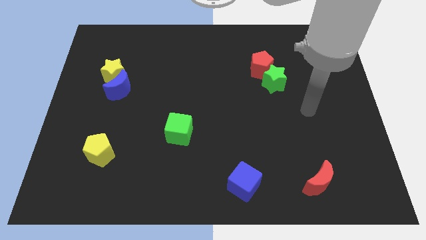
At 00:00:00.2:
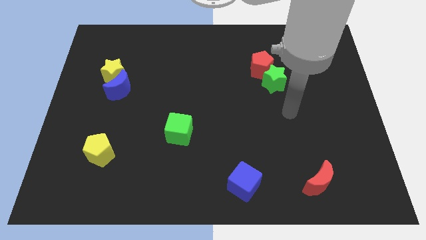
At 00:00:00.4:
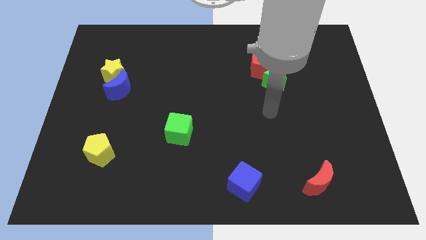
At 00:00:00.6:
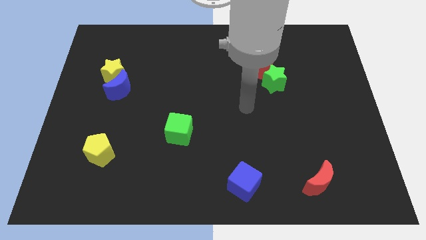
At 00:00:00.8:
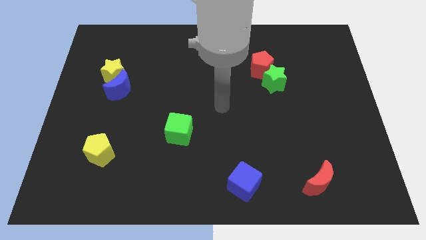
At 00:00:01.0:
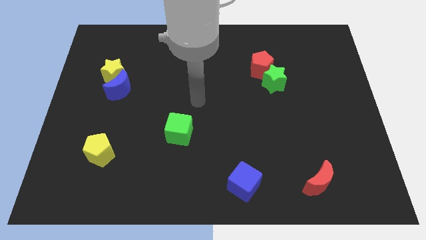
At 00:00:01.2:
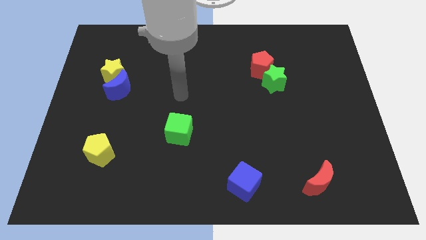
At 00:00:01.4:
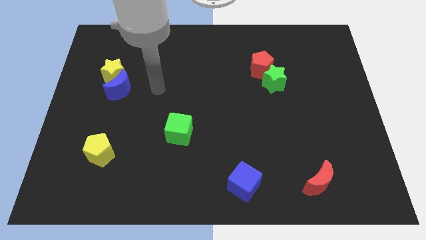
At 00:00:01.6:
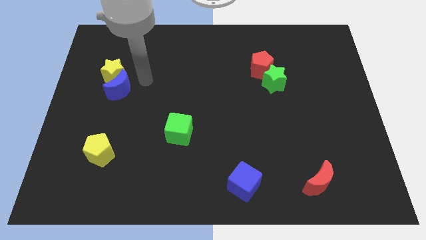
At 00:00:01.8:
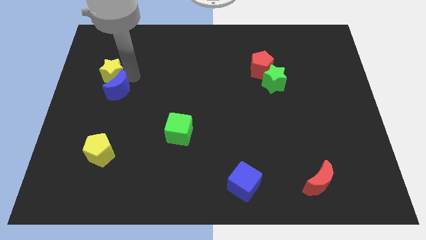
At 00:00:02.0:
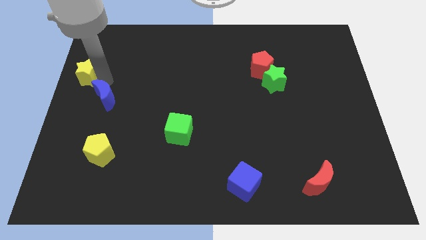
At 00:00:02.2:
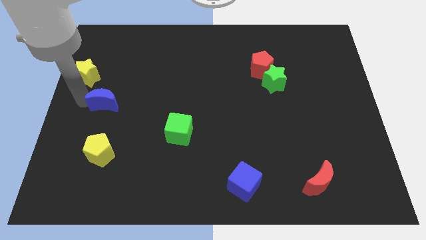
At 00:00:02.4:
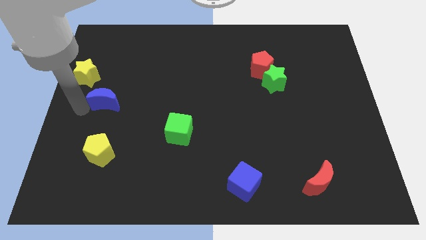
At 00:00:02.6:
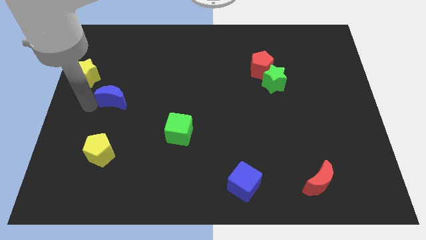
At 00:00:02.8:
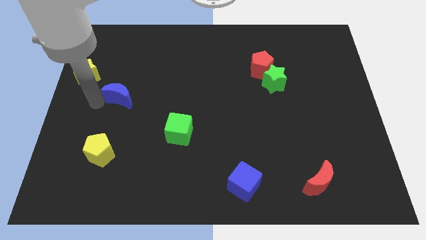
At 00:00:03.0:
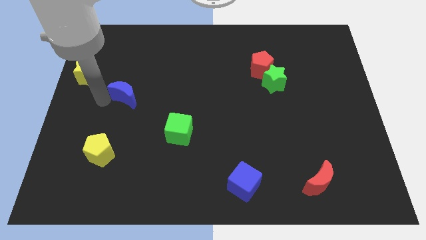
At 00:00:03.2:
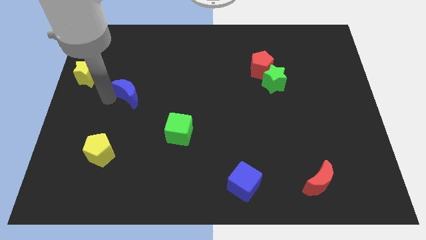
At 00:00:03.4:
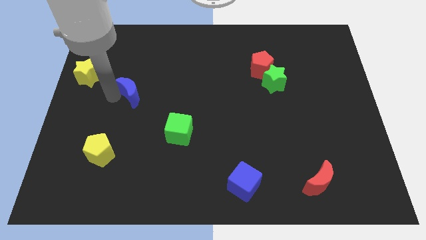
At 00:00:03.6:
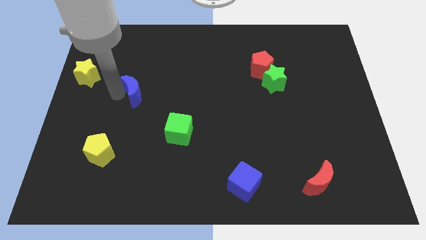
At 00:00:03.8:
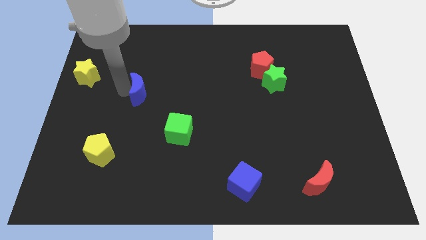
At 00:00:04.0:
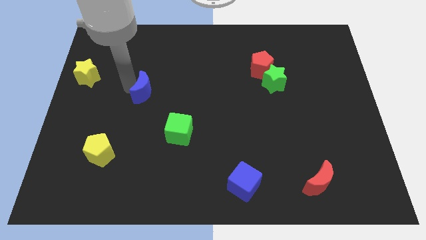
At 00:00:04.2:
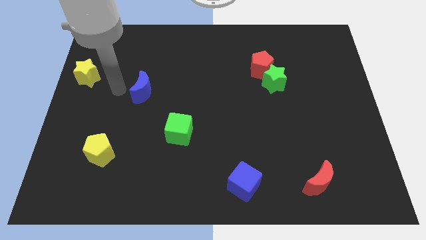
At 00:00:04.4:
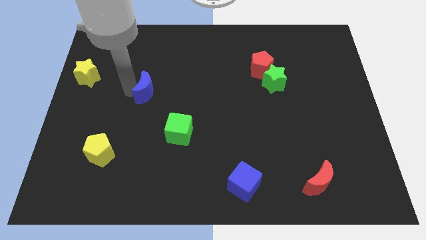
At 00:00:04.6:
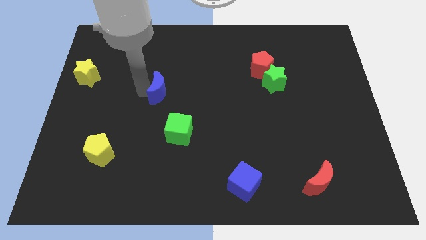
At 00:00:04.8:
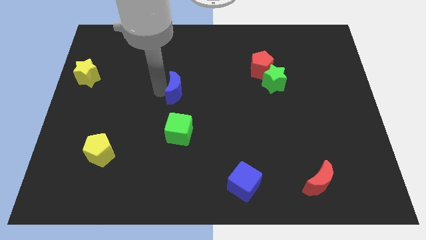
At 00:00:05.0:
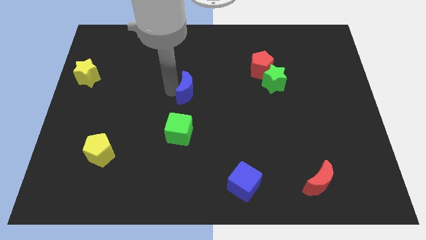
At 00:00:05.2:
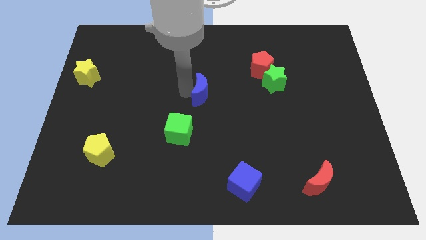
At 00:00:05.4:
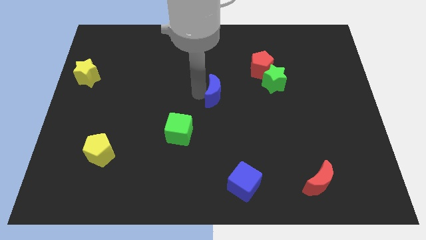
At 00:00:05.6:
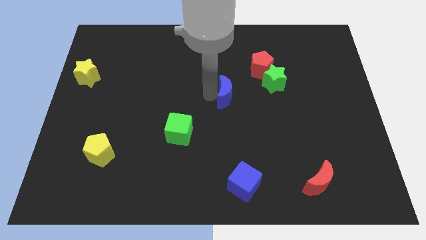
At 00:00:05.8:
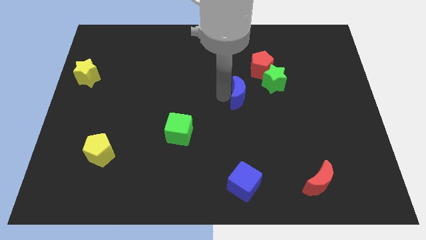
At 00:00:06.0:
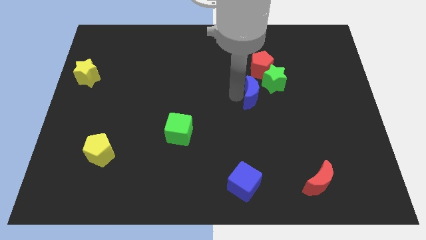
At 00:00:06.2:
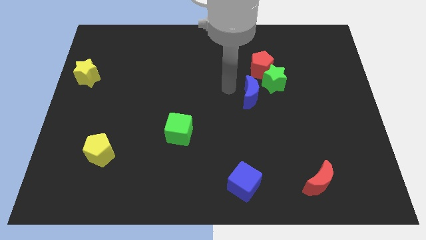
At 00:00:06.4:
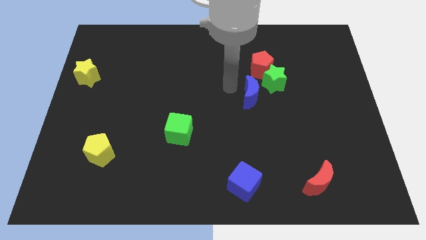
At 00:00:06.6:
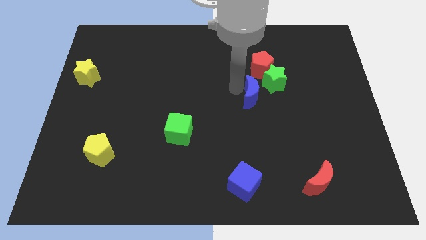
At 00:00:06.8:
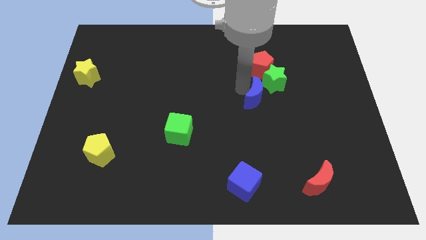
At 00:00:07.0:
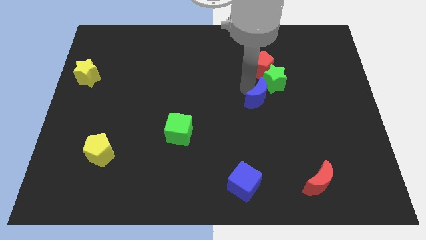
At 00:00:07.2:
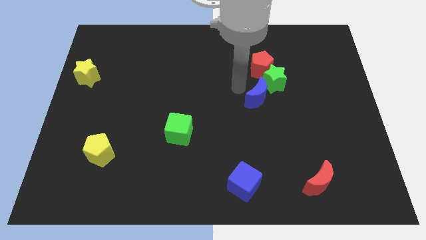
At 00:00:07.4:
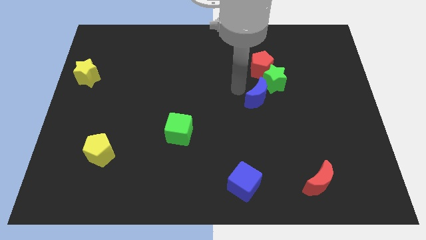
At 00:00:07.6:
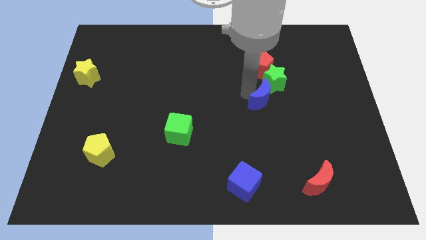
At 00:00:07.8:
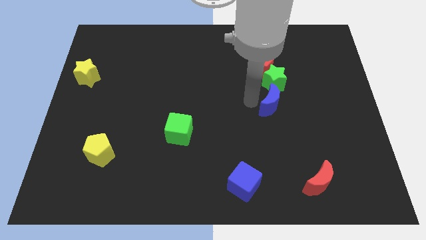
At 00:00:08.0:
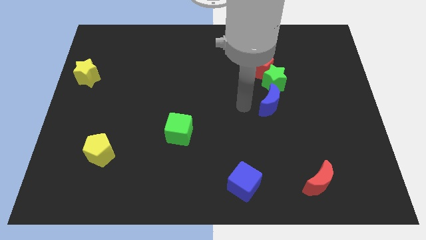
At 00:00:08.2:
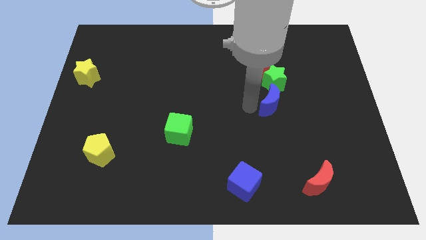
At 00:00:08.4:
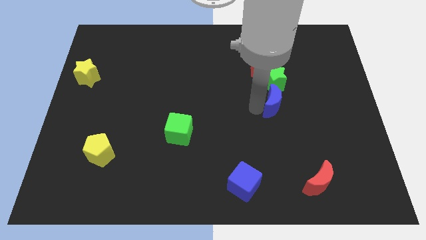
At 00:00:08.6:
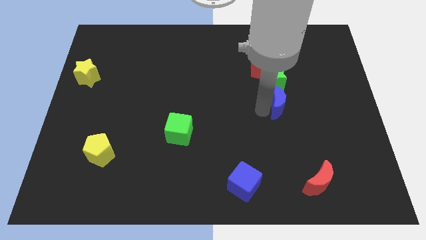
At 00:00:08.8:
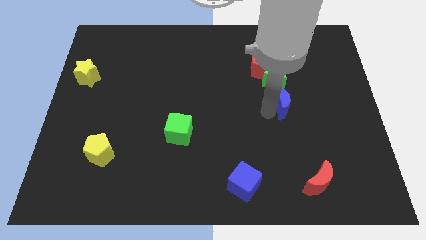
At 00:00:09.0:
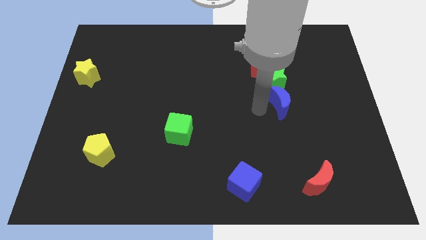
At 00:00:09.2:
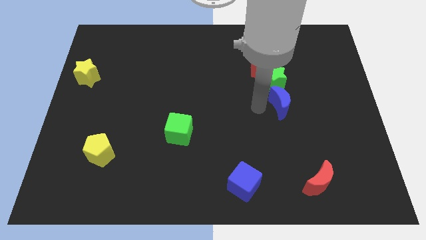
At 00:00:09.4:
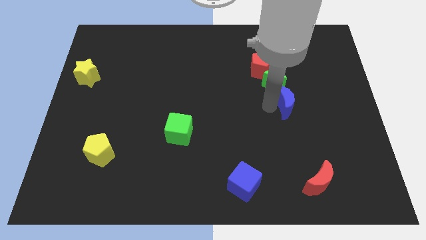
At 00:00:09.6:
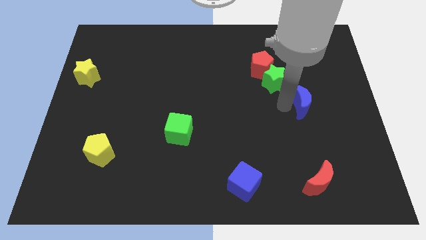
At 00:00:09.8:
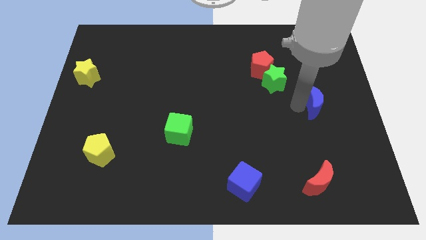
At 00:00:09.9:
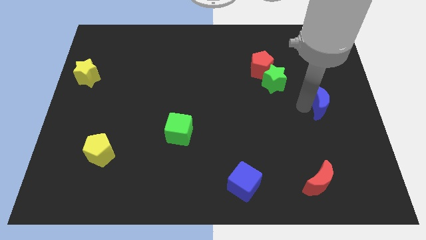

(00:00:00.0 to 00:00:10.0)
put the blue moon to the right side of the board

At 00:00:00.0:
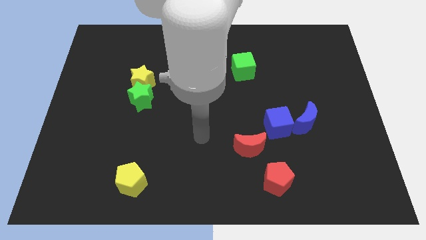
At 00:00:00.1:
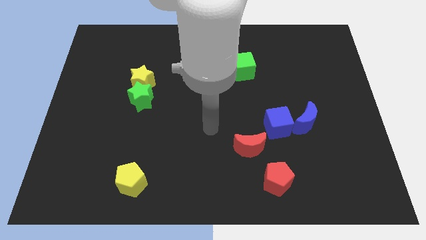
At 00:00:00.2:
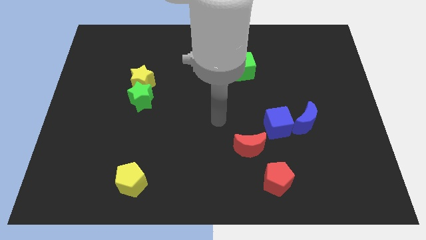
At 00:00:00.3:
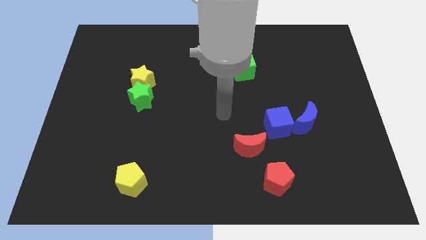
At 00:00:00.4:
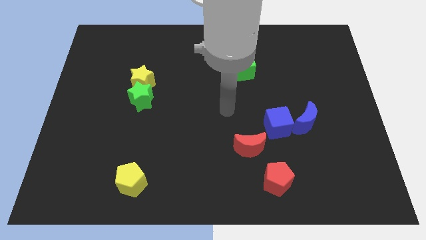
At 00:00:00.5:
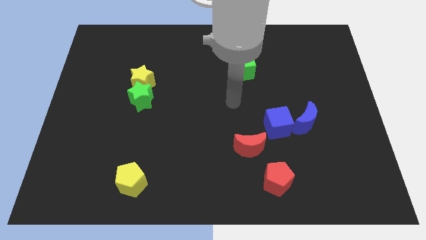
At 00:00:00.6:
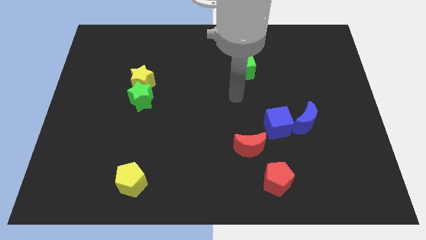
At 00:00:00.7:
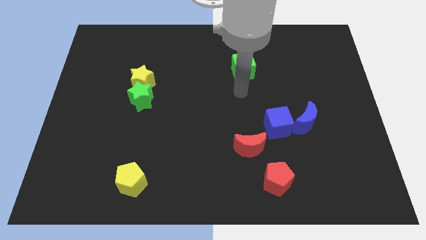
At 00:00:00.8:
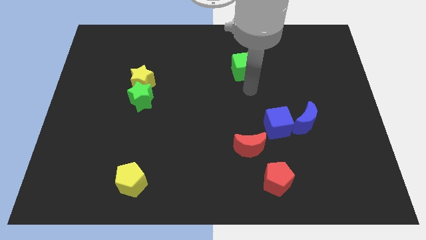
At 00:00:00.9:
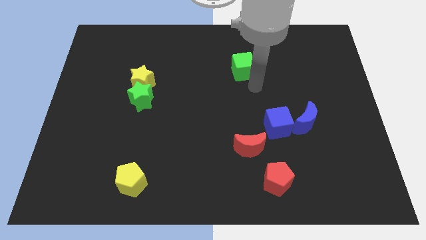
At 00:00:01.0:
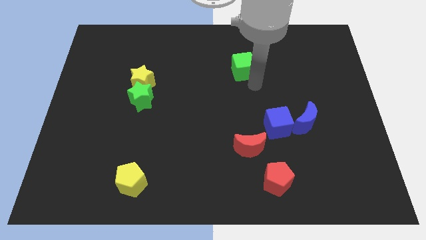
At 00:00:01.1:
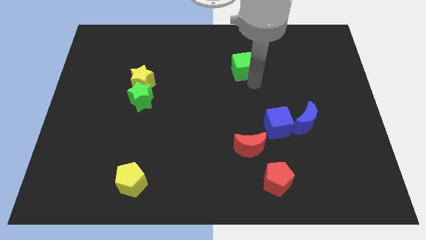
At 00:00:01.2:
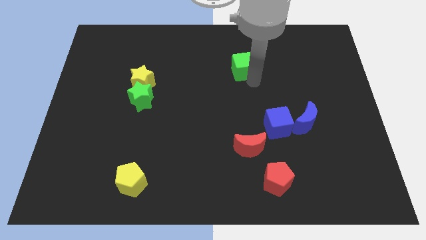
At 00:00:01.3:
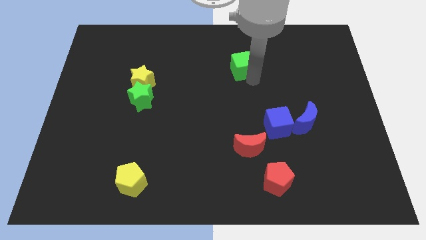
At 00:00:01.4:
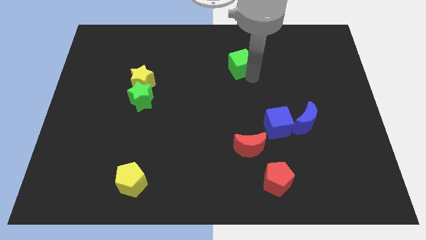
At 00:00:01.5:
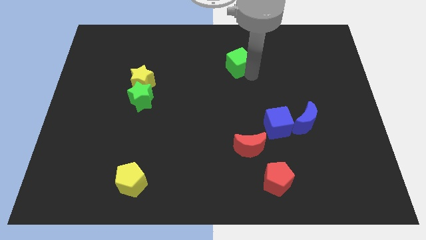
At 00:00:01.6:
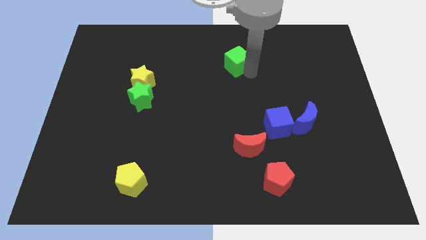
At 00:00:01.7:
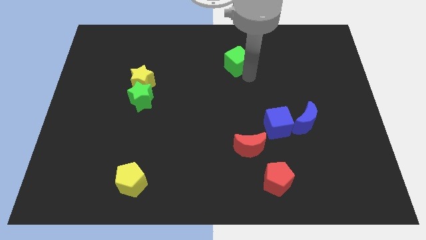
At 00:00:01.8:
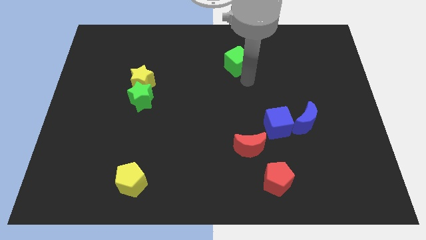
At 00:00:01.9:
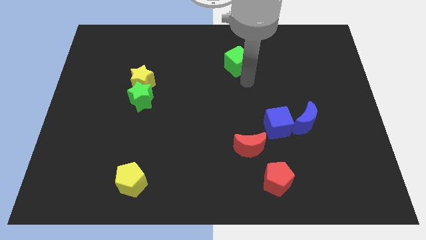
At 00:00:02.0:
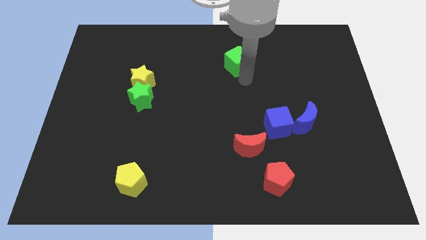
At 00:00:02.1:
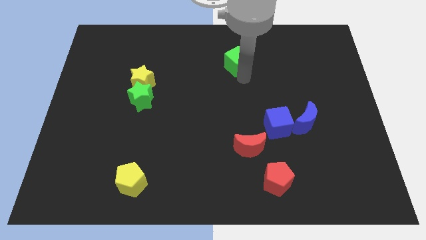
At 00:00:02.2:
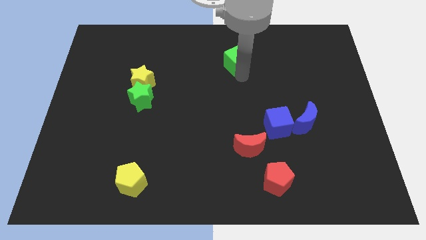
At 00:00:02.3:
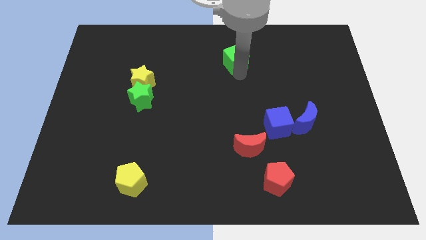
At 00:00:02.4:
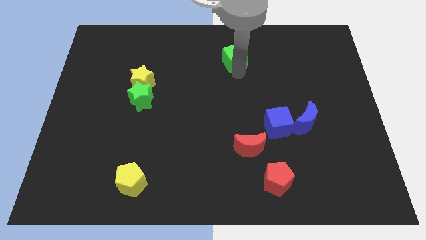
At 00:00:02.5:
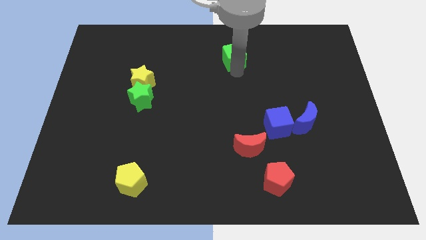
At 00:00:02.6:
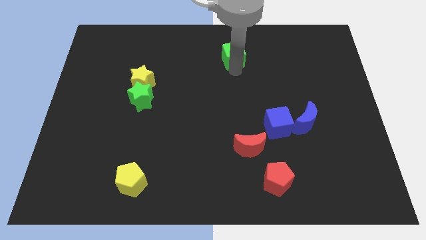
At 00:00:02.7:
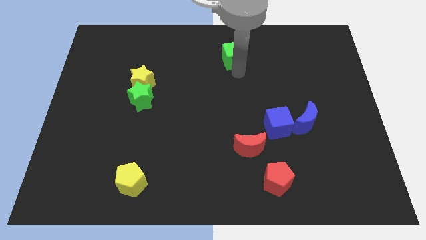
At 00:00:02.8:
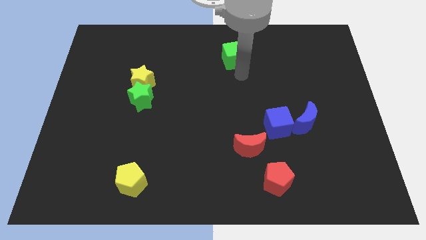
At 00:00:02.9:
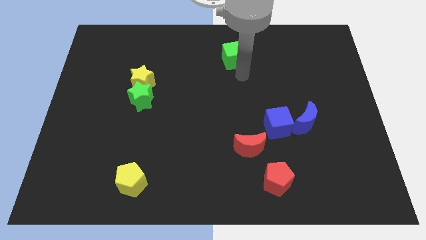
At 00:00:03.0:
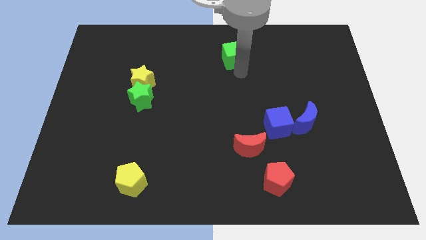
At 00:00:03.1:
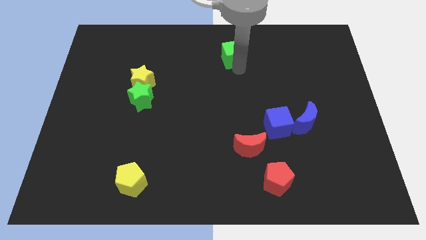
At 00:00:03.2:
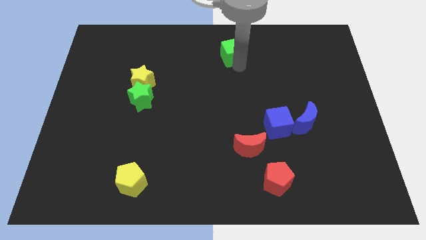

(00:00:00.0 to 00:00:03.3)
move the green cube to the towards your base
